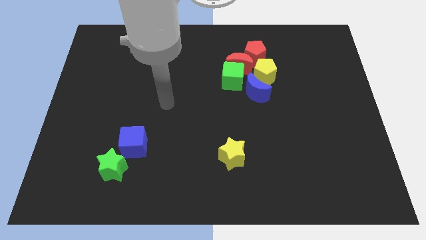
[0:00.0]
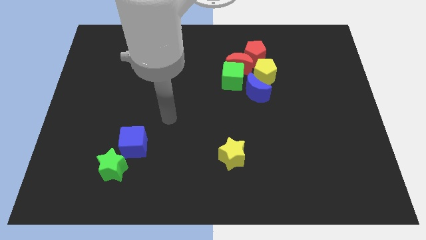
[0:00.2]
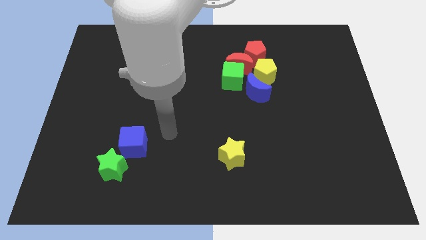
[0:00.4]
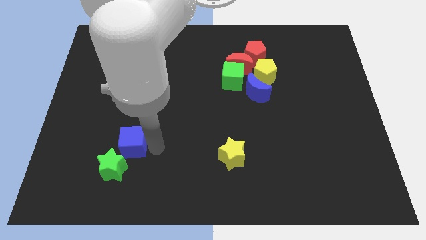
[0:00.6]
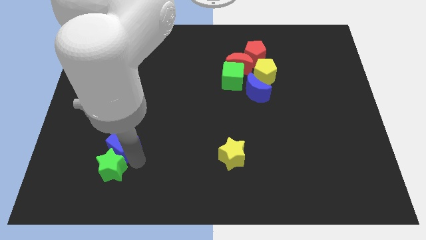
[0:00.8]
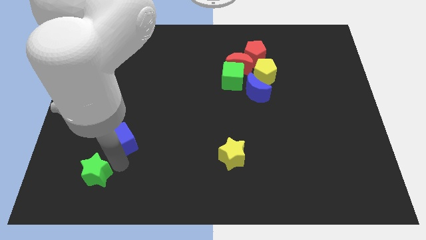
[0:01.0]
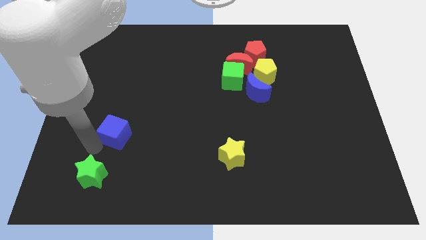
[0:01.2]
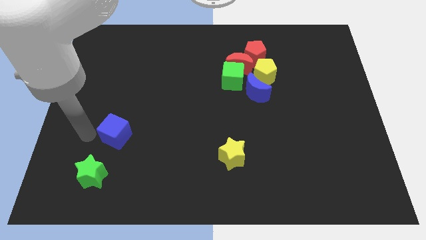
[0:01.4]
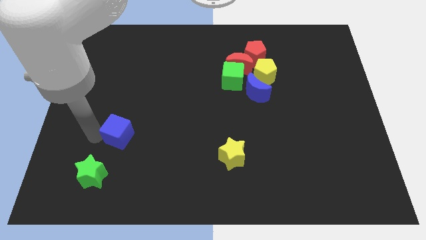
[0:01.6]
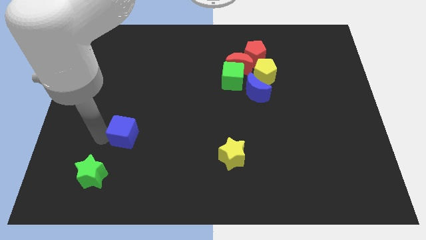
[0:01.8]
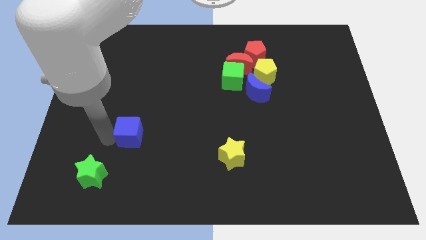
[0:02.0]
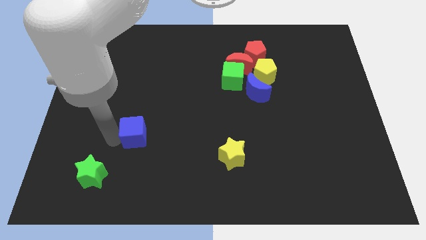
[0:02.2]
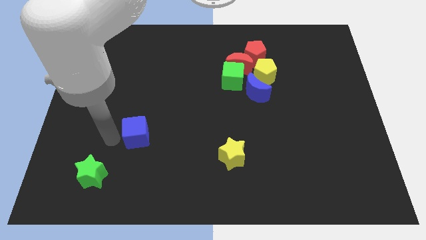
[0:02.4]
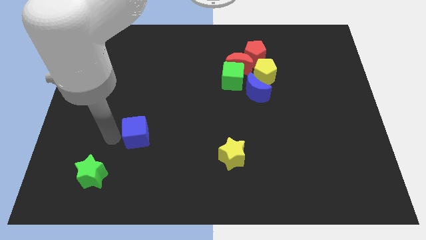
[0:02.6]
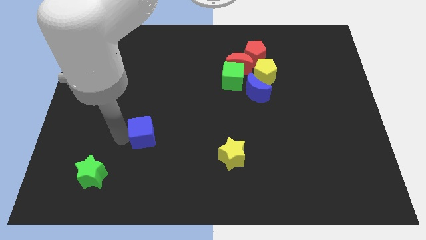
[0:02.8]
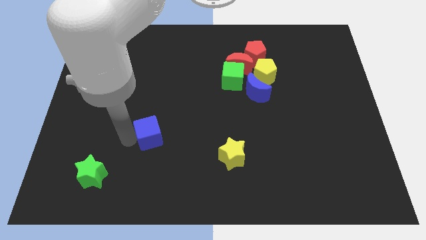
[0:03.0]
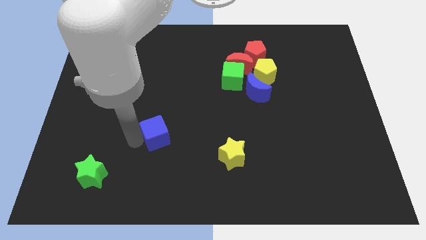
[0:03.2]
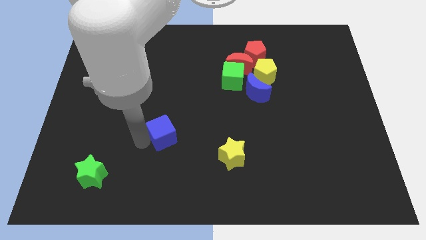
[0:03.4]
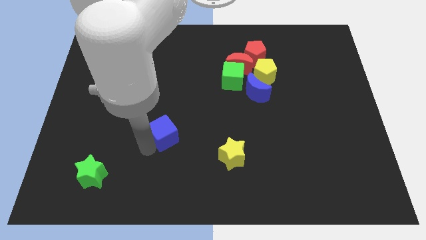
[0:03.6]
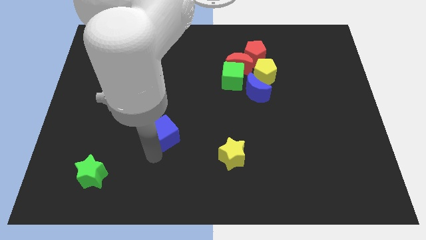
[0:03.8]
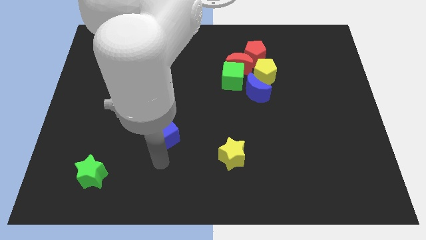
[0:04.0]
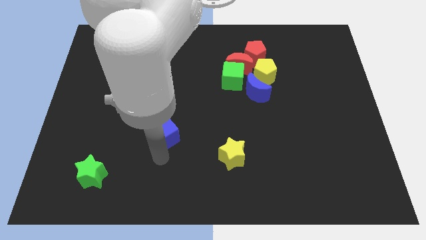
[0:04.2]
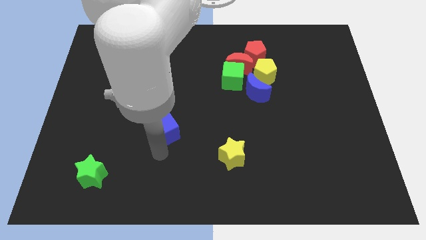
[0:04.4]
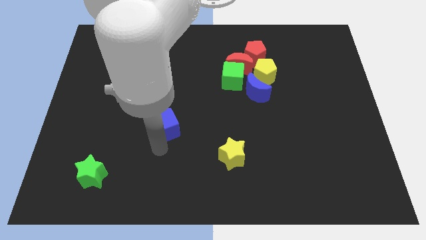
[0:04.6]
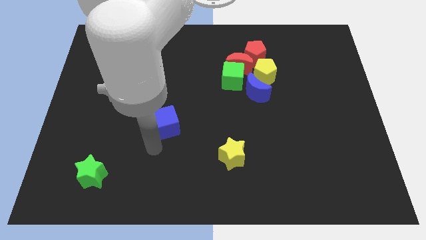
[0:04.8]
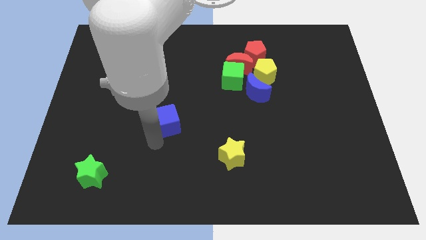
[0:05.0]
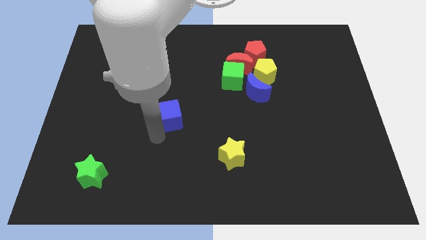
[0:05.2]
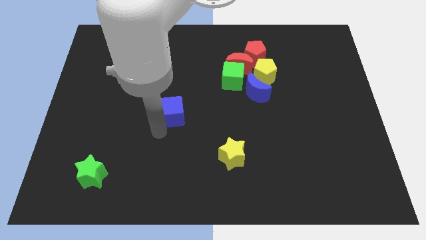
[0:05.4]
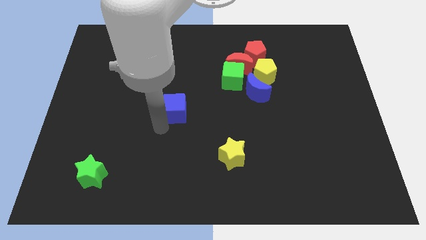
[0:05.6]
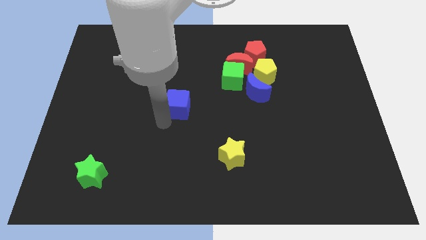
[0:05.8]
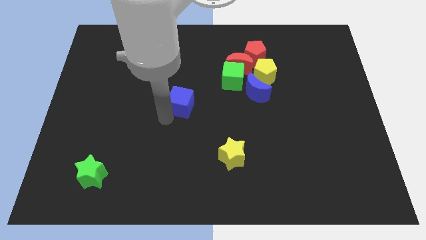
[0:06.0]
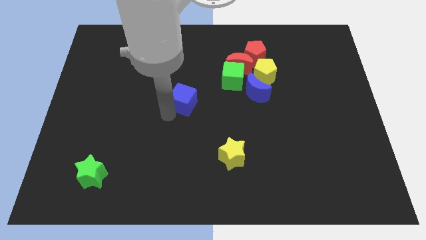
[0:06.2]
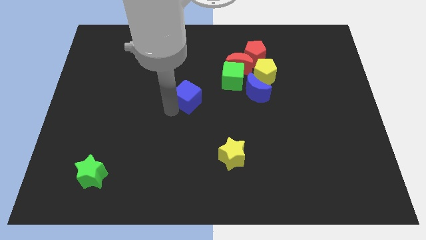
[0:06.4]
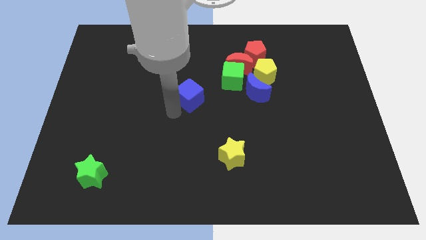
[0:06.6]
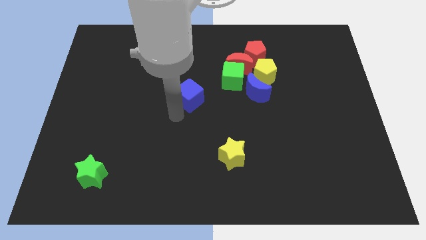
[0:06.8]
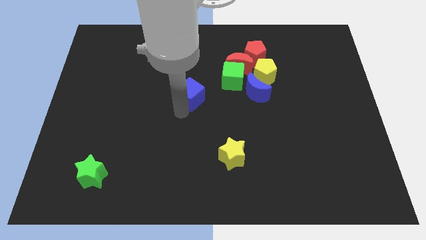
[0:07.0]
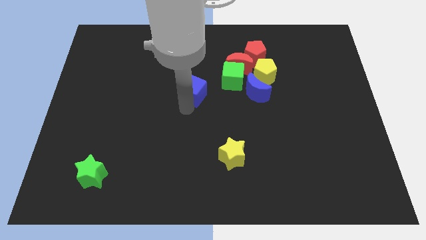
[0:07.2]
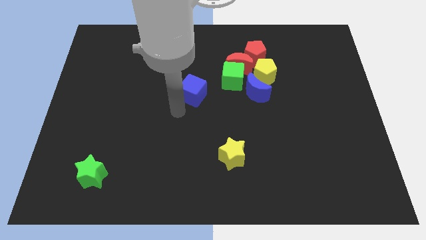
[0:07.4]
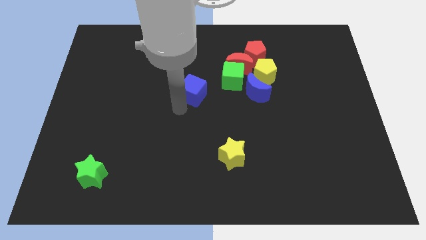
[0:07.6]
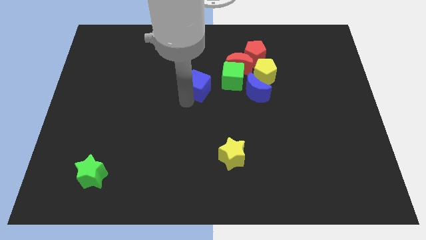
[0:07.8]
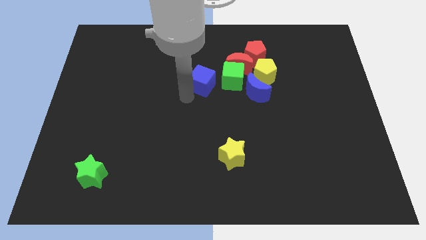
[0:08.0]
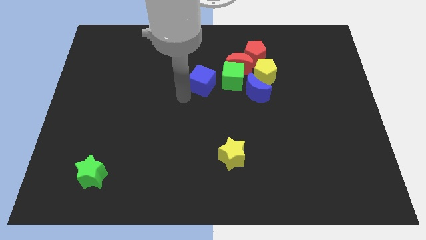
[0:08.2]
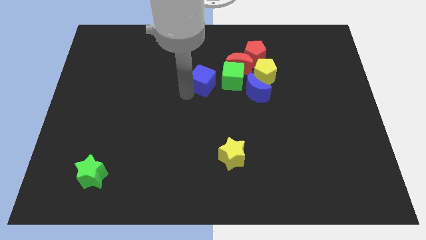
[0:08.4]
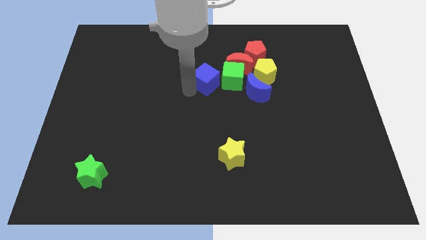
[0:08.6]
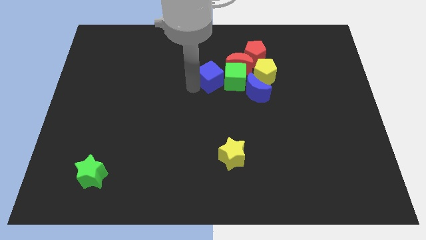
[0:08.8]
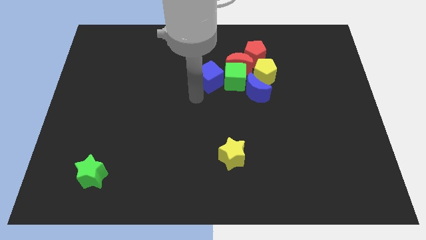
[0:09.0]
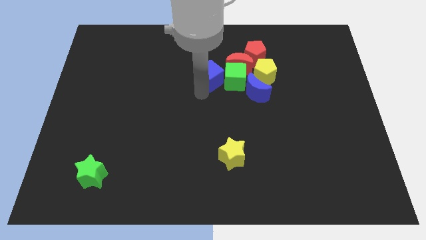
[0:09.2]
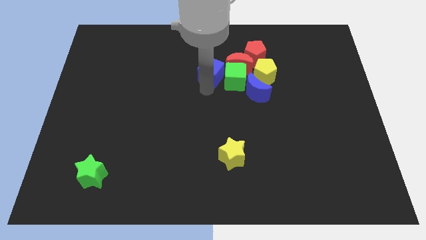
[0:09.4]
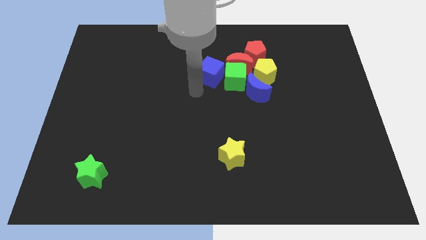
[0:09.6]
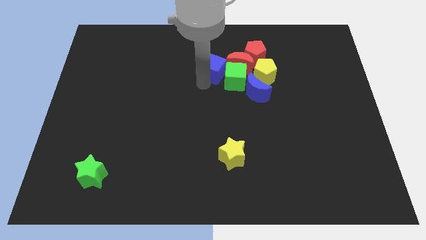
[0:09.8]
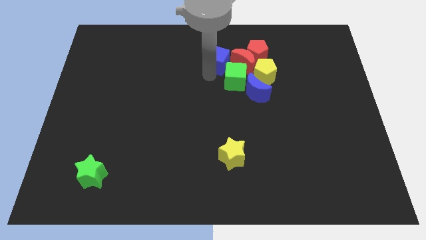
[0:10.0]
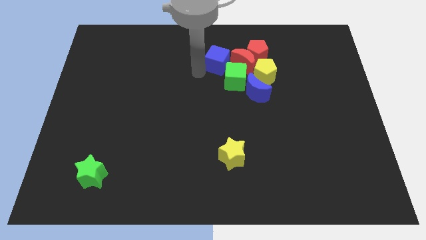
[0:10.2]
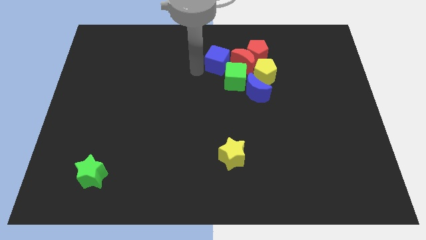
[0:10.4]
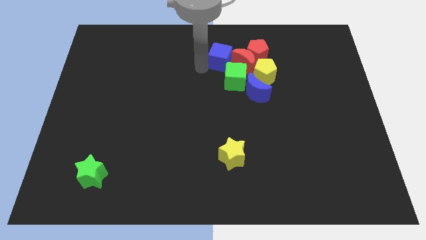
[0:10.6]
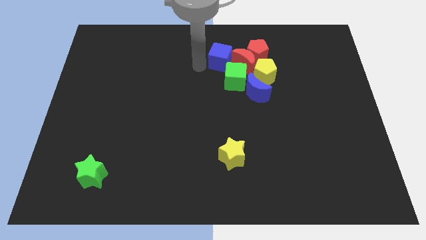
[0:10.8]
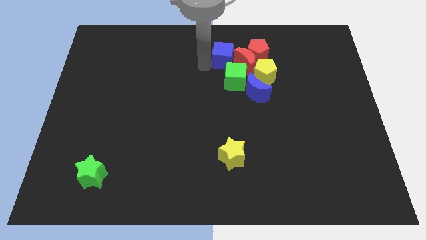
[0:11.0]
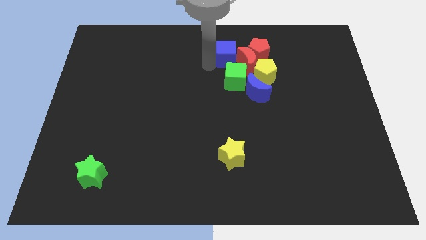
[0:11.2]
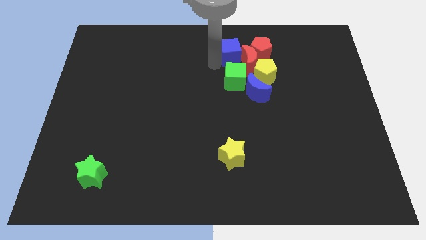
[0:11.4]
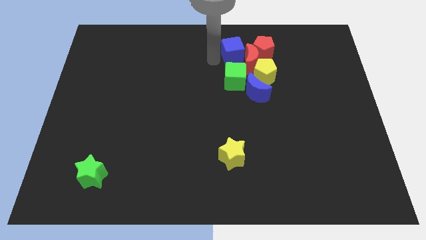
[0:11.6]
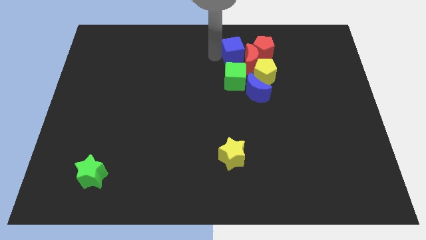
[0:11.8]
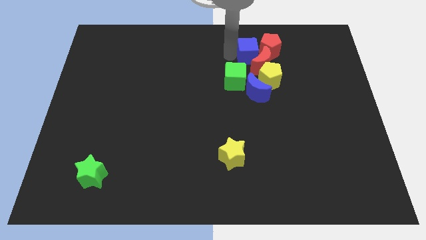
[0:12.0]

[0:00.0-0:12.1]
push the blue cube to the red pentagon
